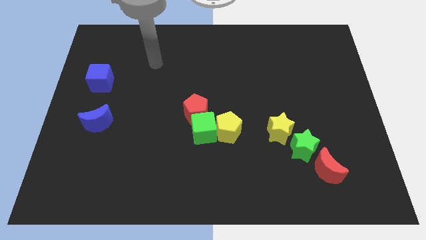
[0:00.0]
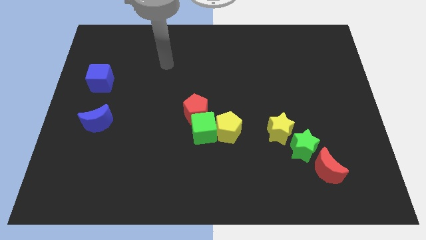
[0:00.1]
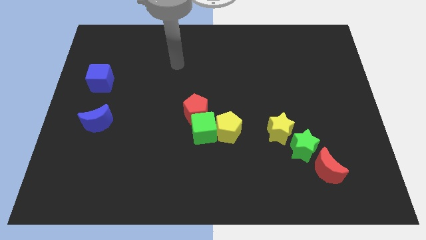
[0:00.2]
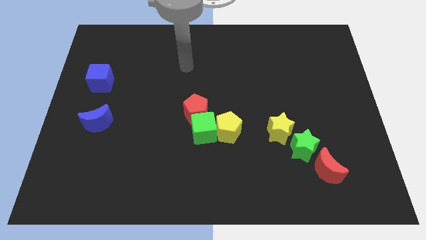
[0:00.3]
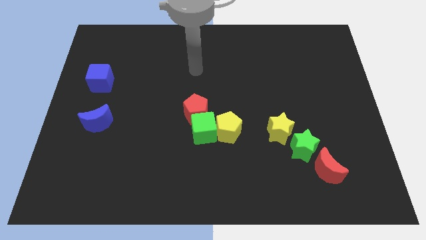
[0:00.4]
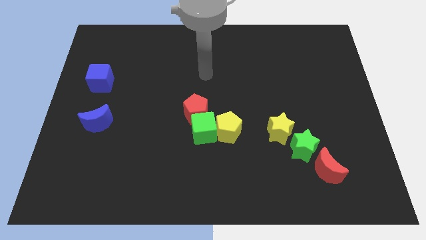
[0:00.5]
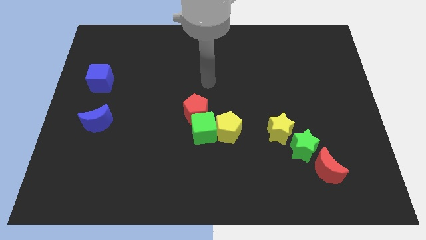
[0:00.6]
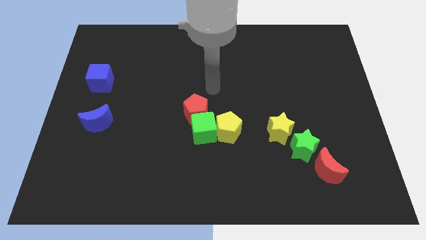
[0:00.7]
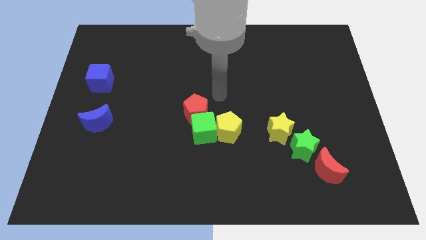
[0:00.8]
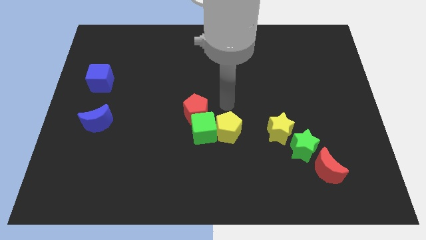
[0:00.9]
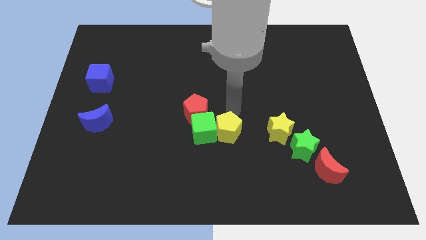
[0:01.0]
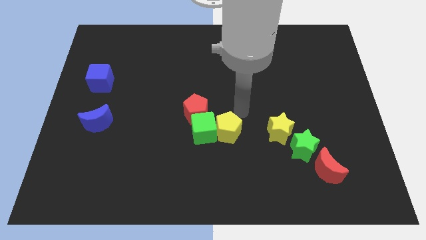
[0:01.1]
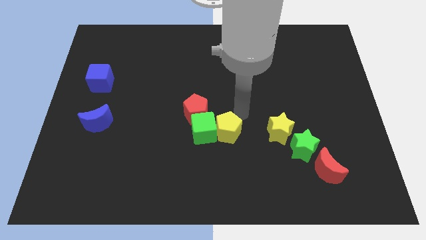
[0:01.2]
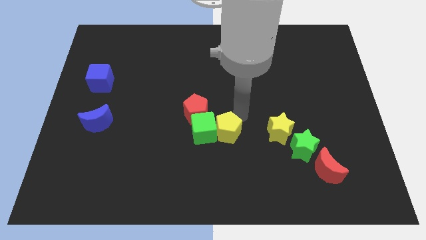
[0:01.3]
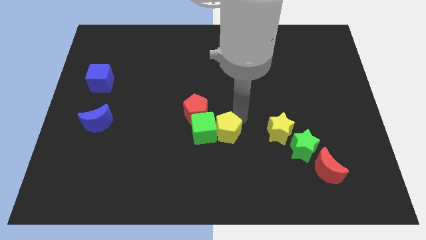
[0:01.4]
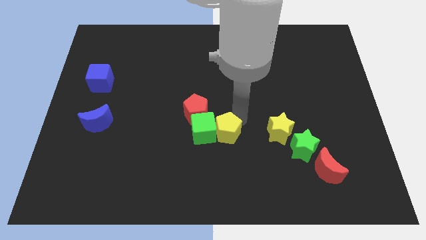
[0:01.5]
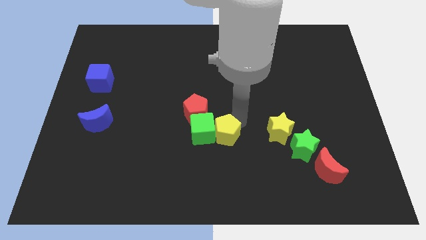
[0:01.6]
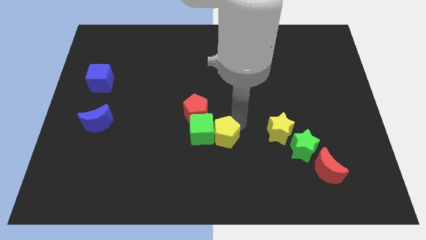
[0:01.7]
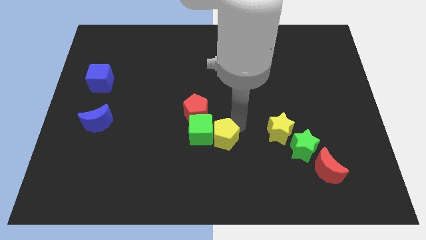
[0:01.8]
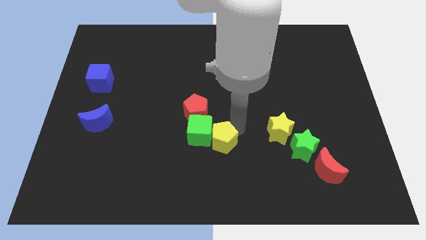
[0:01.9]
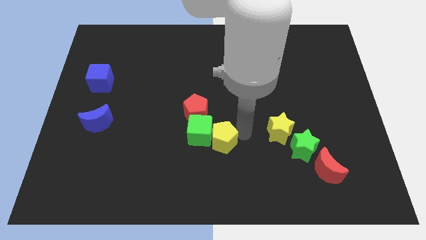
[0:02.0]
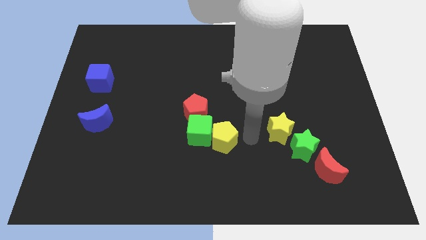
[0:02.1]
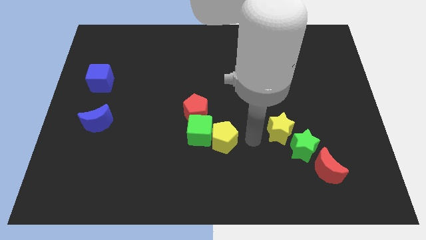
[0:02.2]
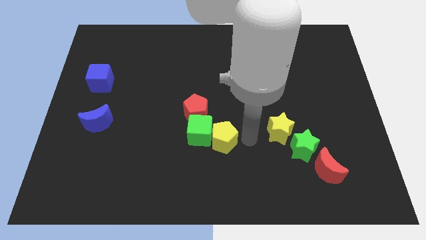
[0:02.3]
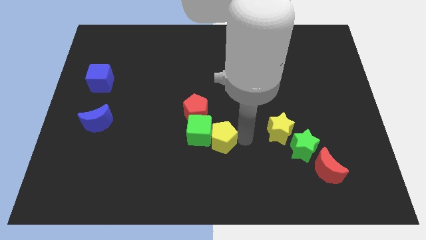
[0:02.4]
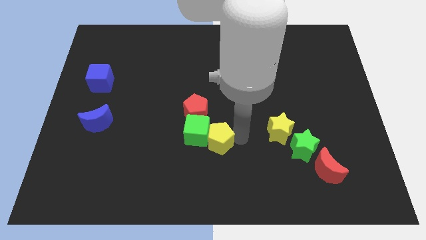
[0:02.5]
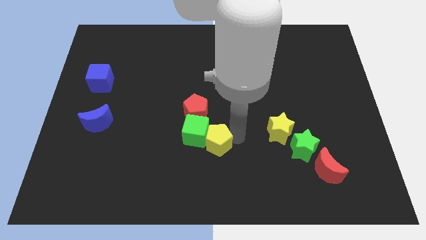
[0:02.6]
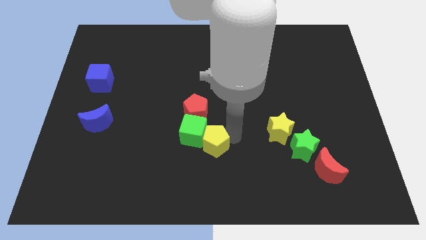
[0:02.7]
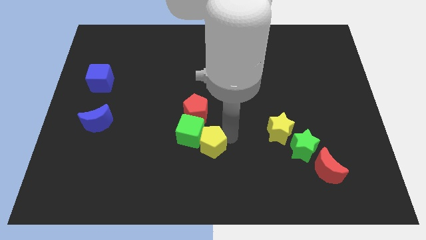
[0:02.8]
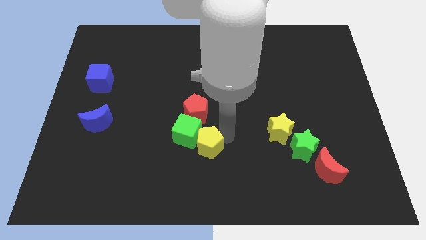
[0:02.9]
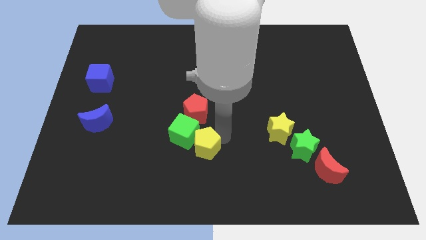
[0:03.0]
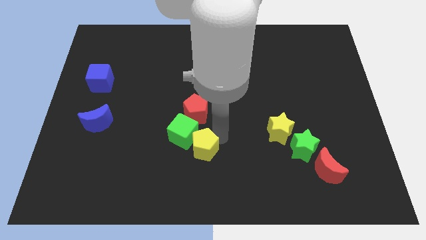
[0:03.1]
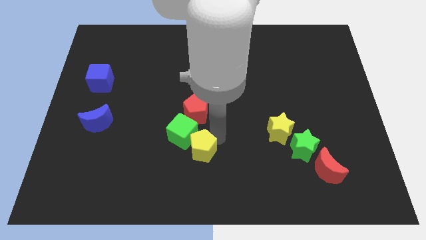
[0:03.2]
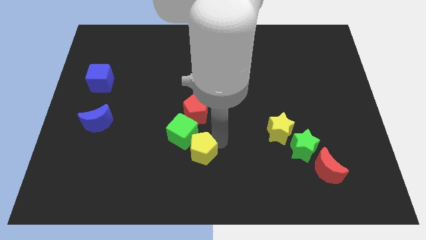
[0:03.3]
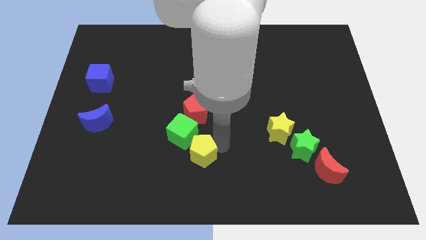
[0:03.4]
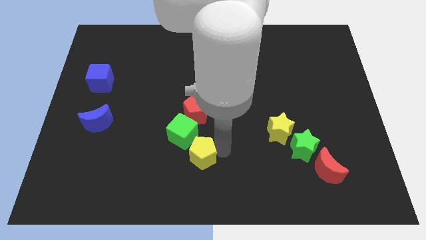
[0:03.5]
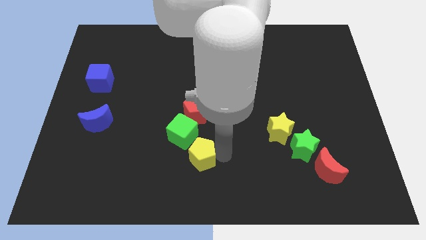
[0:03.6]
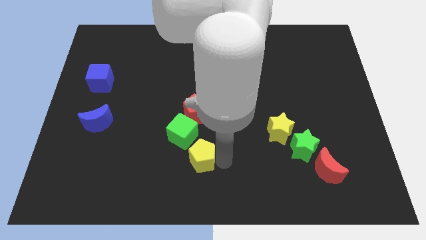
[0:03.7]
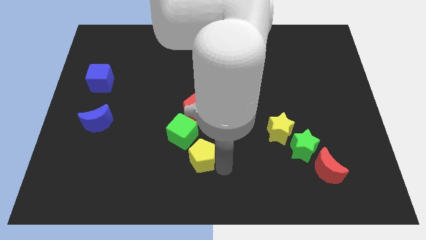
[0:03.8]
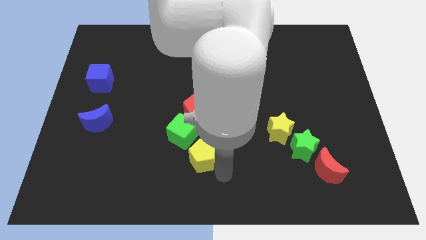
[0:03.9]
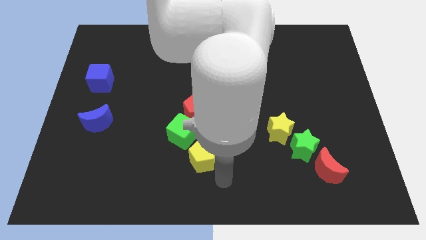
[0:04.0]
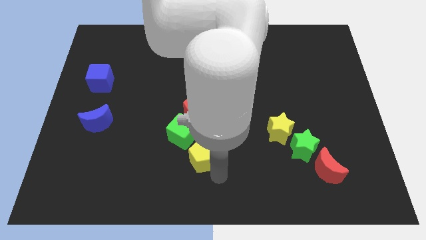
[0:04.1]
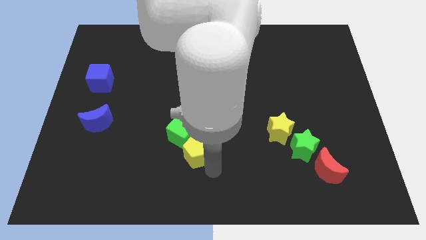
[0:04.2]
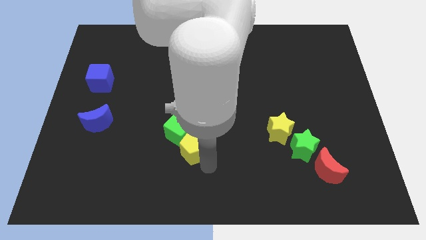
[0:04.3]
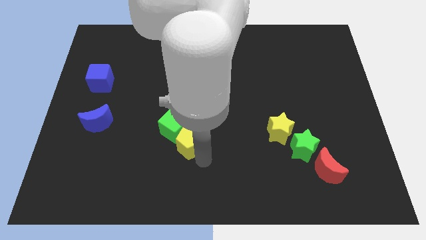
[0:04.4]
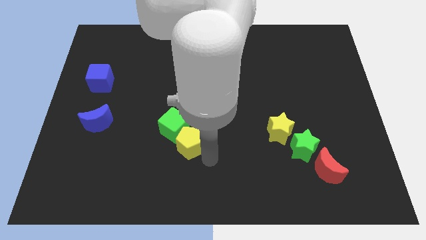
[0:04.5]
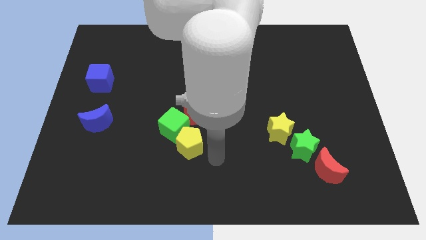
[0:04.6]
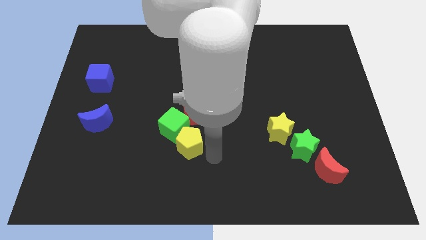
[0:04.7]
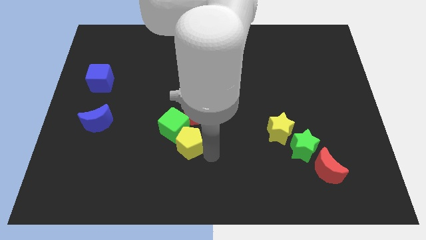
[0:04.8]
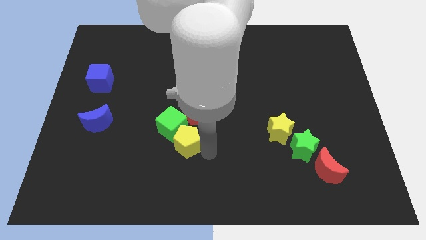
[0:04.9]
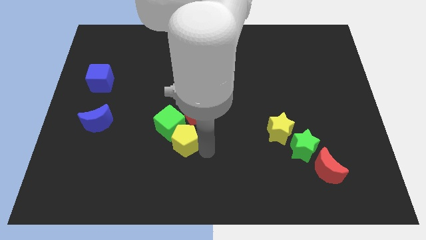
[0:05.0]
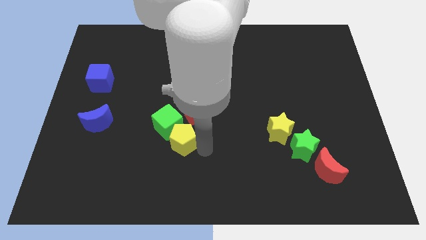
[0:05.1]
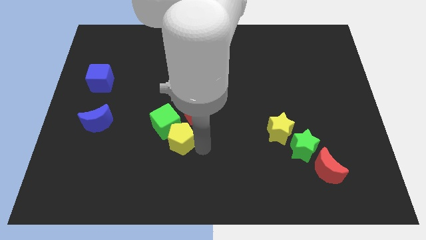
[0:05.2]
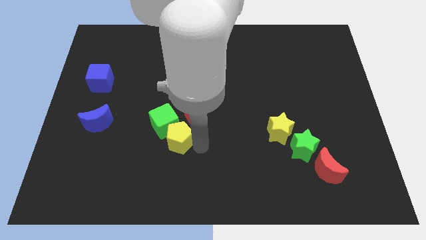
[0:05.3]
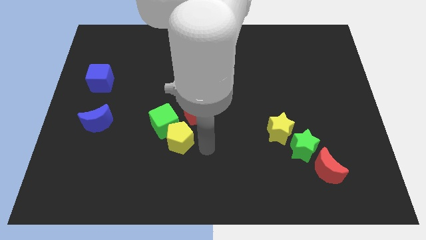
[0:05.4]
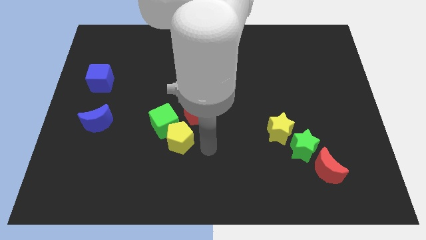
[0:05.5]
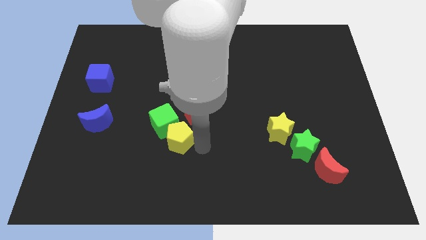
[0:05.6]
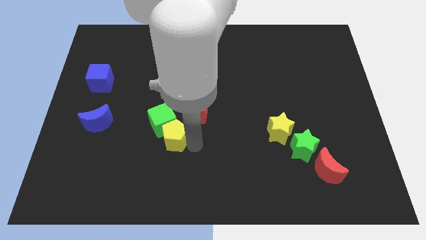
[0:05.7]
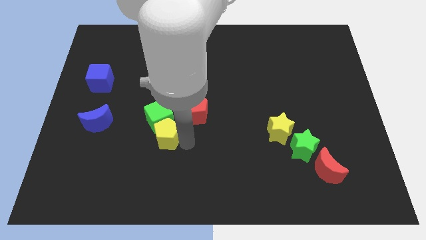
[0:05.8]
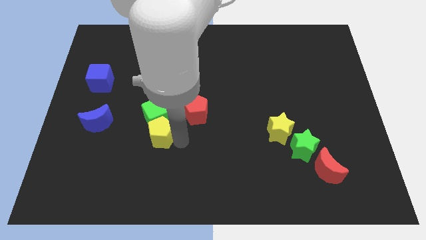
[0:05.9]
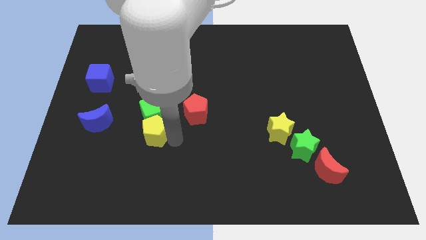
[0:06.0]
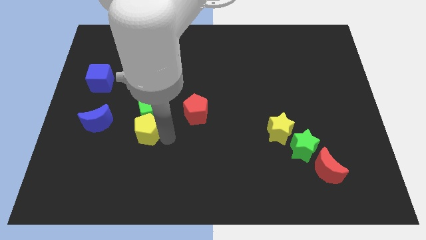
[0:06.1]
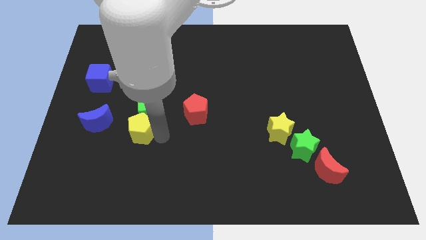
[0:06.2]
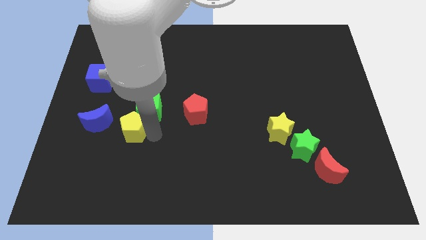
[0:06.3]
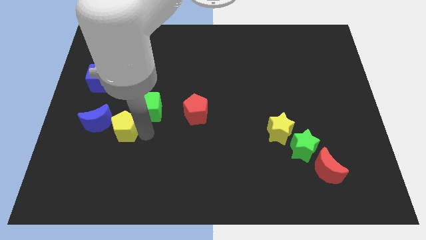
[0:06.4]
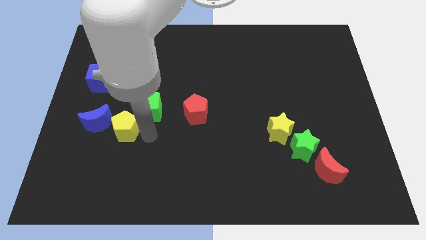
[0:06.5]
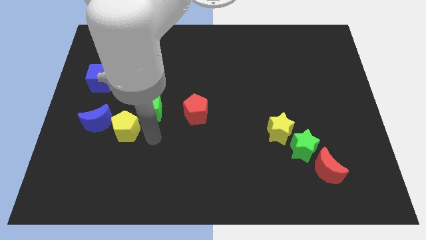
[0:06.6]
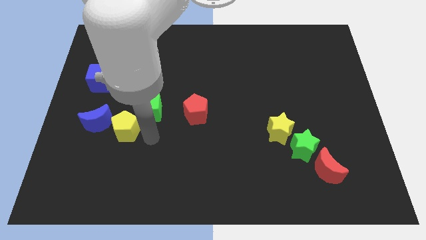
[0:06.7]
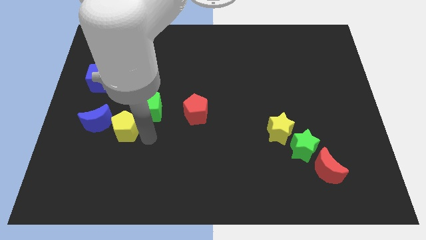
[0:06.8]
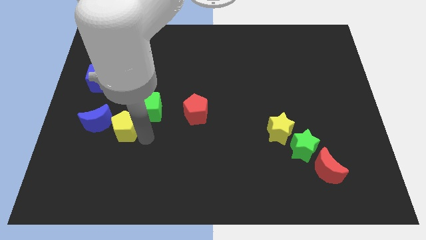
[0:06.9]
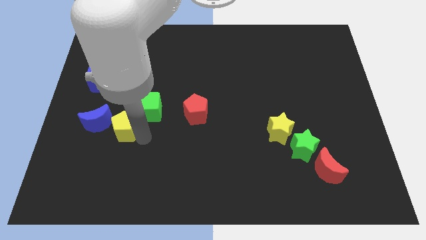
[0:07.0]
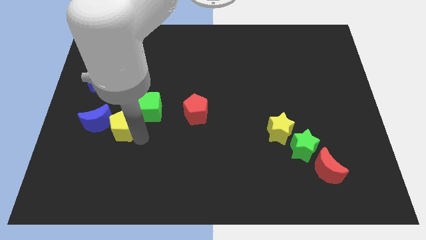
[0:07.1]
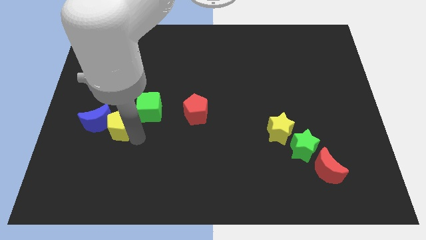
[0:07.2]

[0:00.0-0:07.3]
push the yellow pentagon towards the blue moon

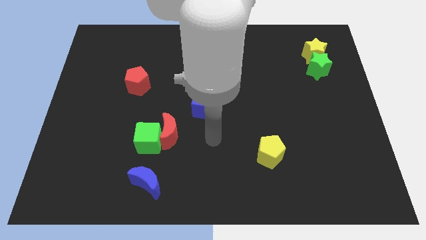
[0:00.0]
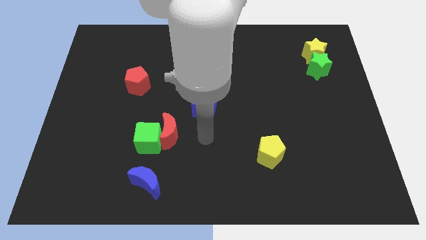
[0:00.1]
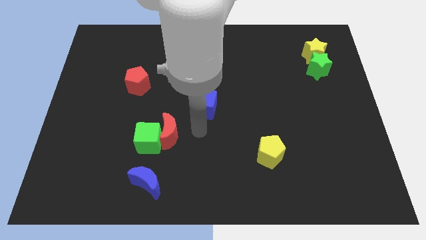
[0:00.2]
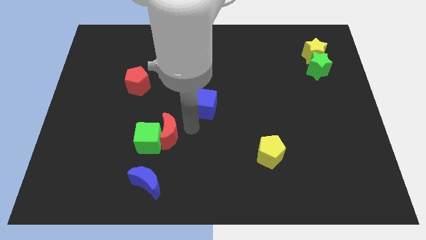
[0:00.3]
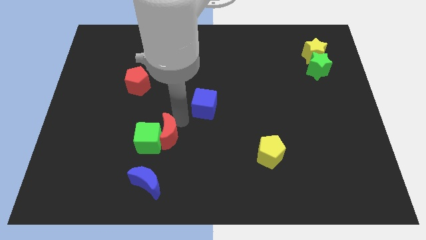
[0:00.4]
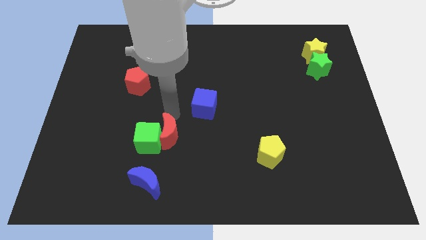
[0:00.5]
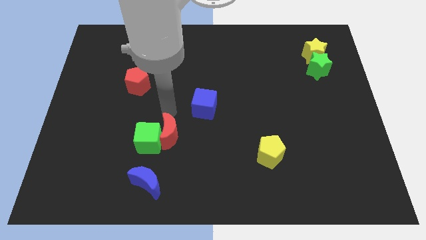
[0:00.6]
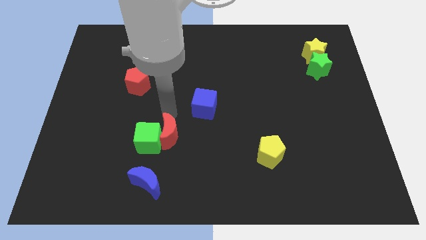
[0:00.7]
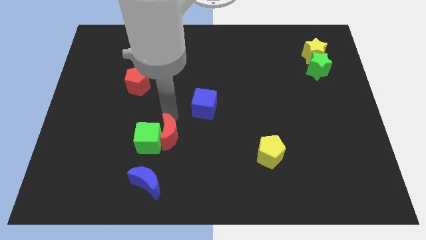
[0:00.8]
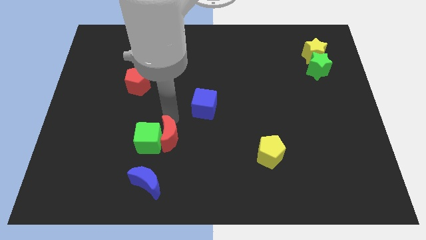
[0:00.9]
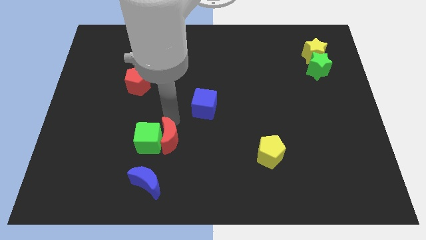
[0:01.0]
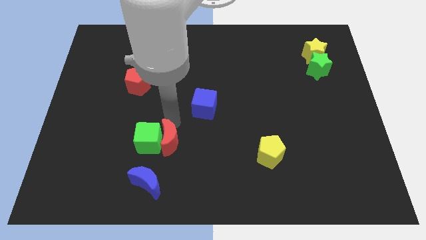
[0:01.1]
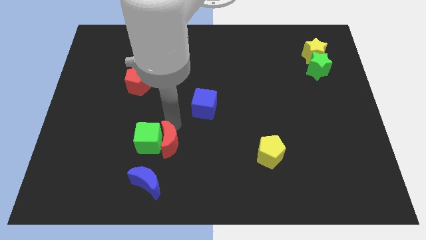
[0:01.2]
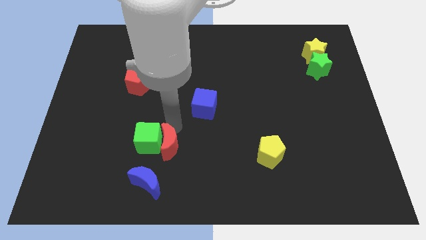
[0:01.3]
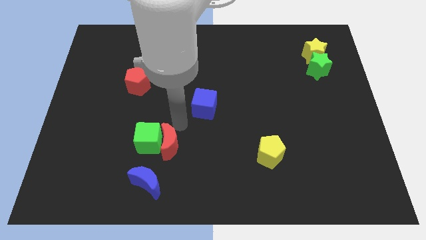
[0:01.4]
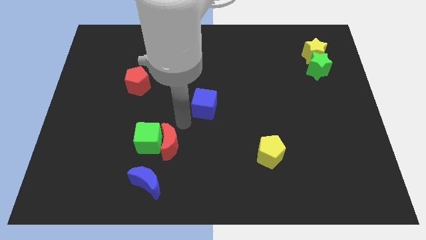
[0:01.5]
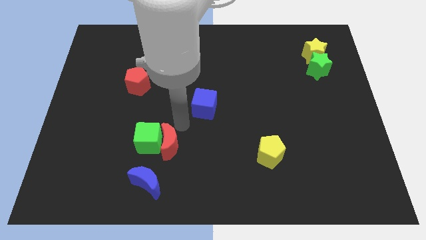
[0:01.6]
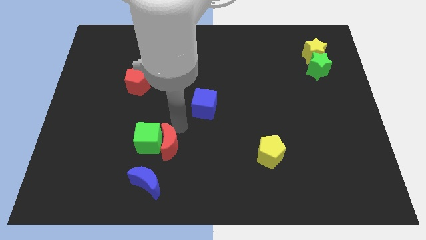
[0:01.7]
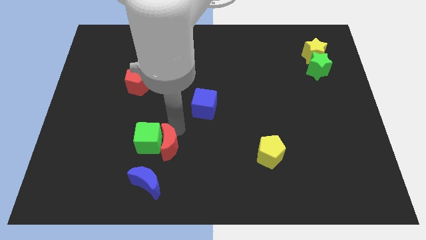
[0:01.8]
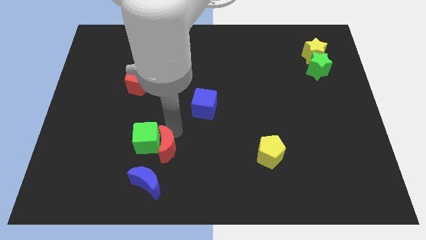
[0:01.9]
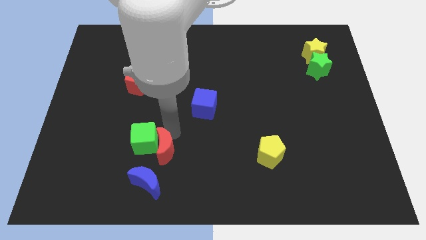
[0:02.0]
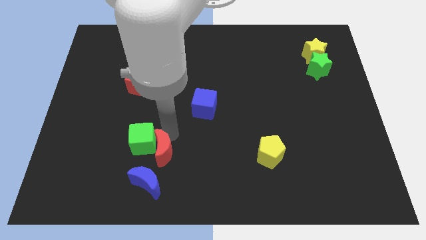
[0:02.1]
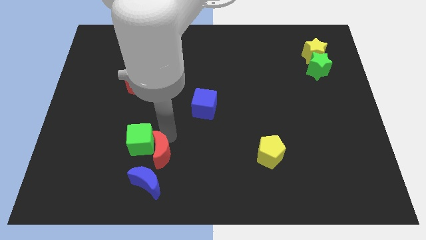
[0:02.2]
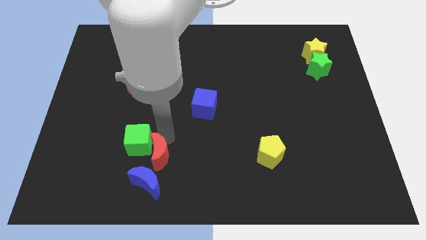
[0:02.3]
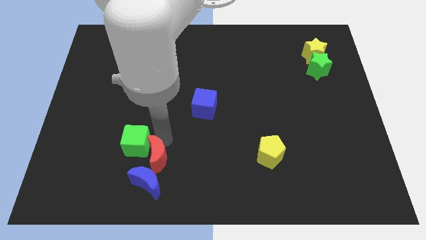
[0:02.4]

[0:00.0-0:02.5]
move the red moon close to the blue moon
